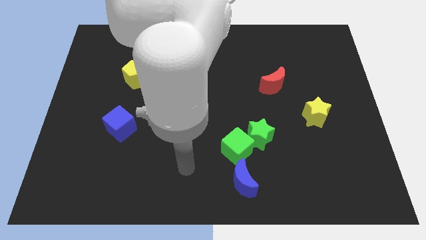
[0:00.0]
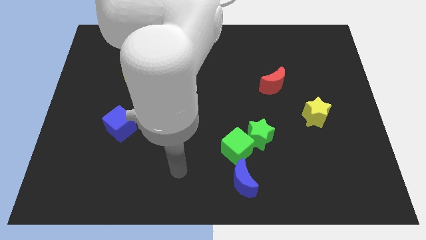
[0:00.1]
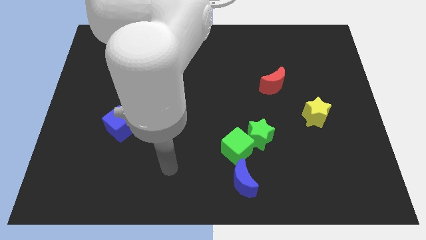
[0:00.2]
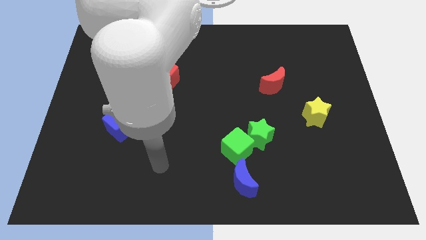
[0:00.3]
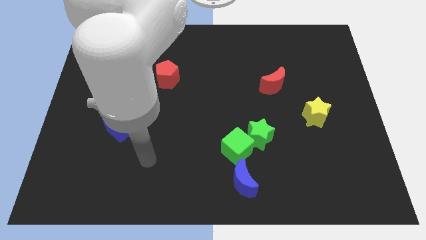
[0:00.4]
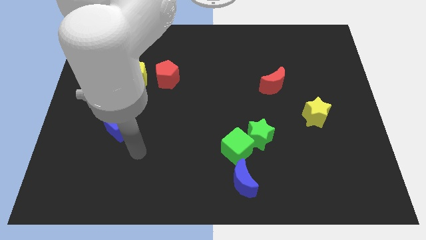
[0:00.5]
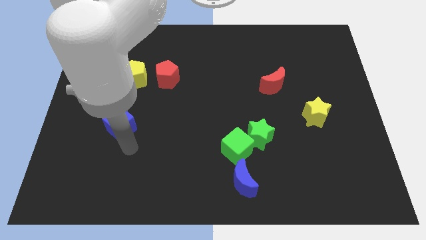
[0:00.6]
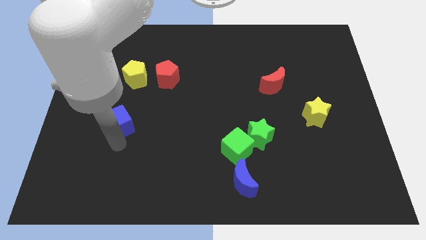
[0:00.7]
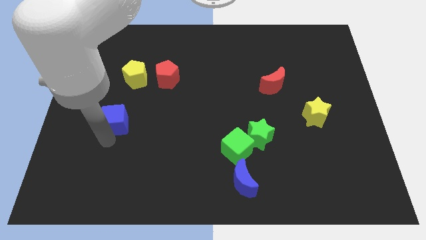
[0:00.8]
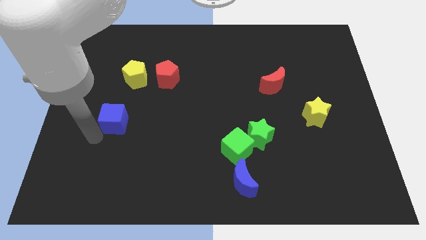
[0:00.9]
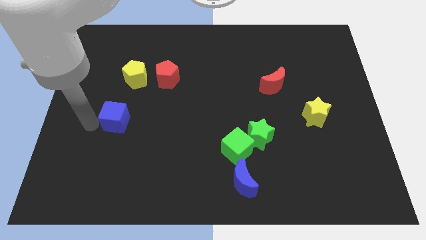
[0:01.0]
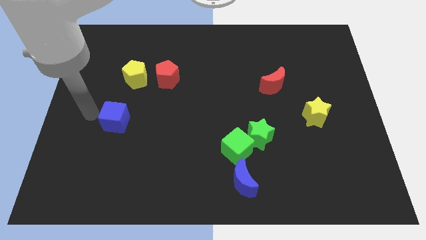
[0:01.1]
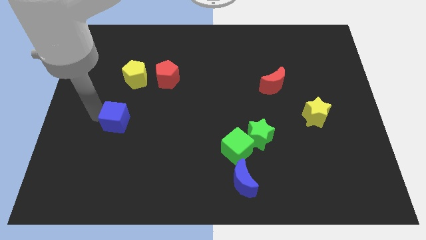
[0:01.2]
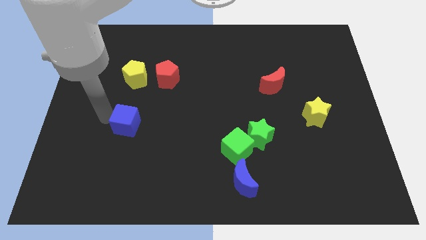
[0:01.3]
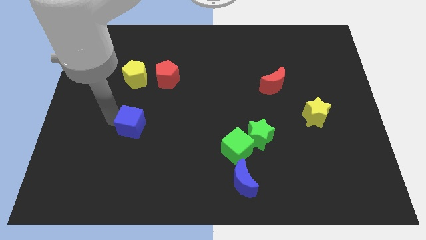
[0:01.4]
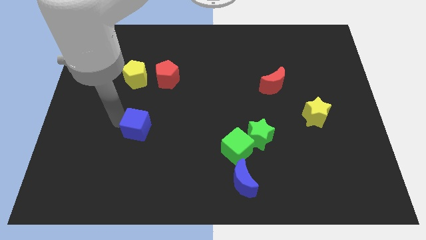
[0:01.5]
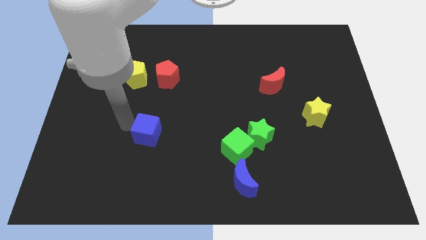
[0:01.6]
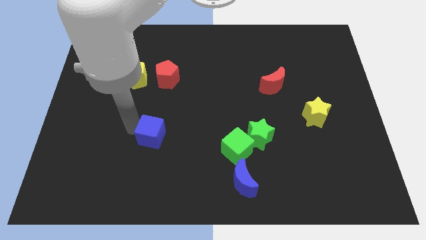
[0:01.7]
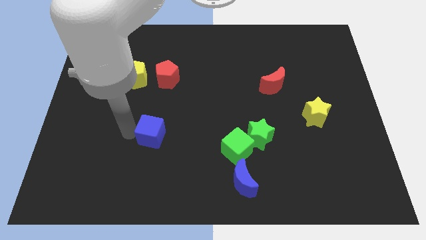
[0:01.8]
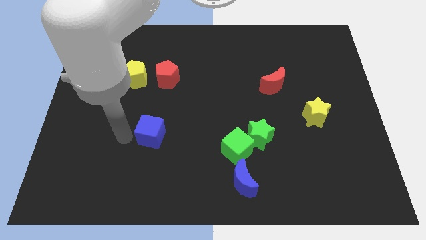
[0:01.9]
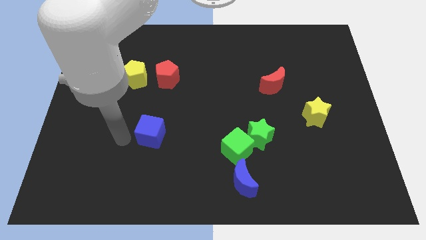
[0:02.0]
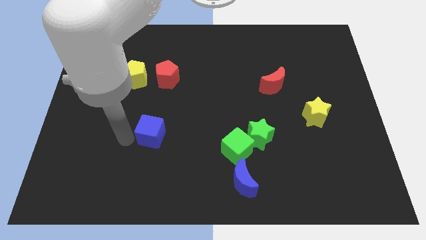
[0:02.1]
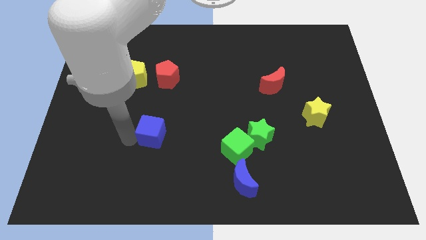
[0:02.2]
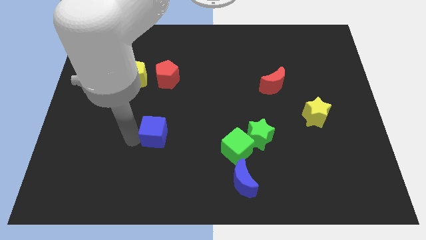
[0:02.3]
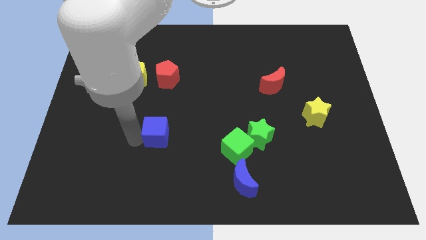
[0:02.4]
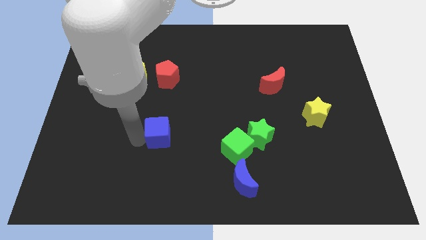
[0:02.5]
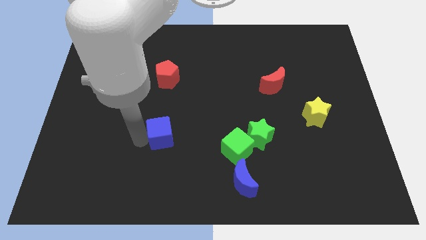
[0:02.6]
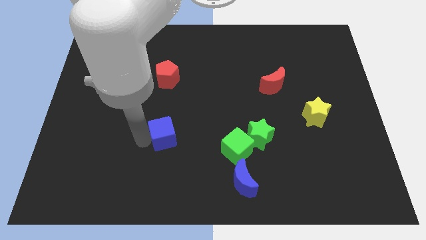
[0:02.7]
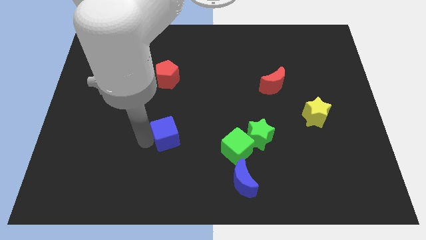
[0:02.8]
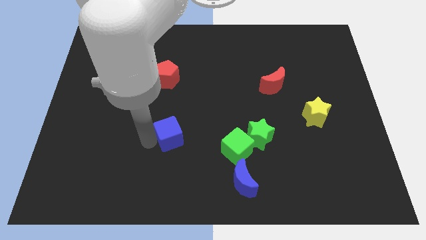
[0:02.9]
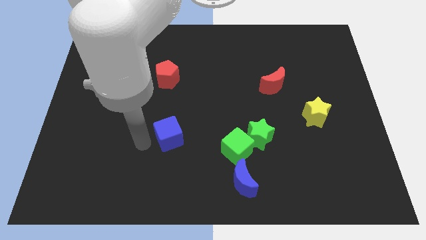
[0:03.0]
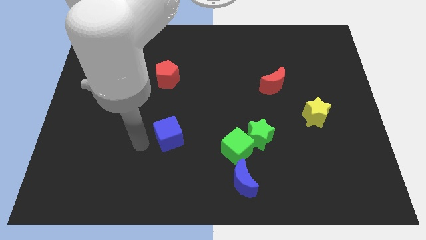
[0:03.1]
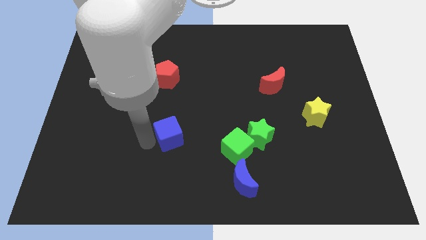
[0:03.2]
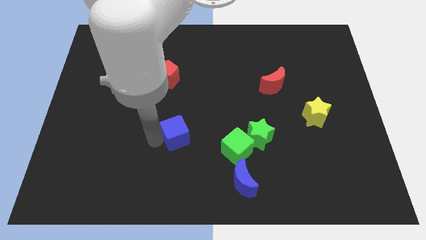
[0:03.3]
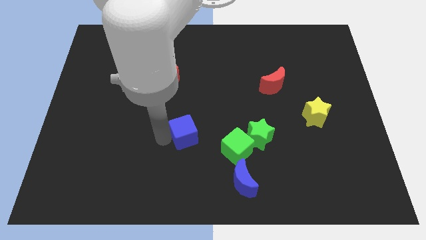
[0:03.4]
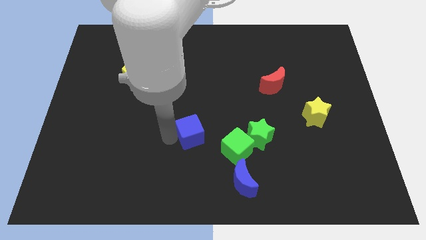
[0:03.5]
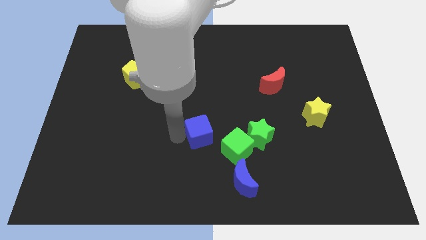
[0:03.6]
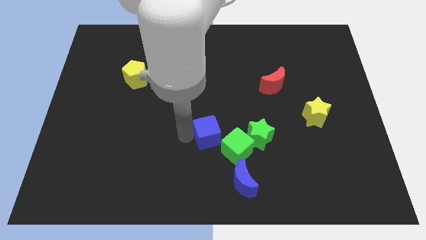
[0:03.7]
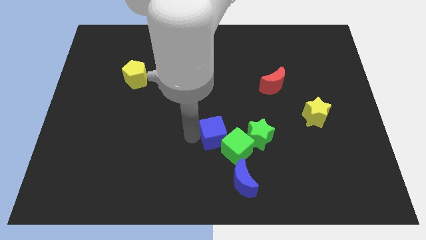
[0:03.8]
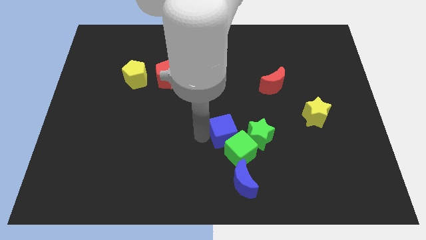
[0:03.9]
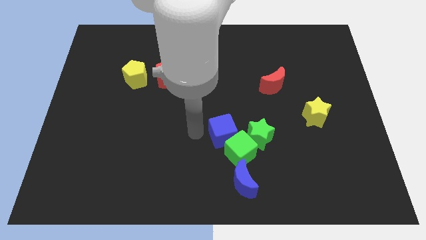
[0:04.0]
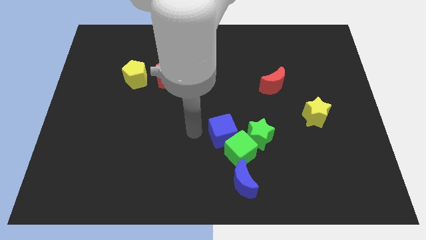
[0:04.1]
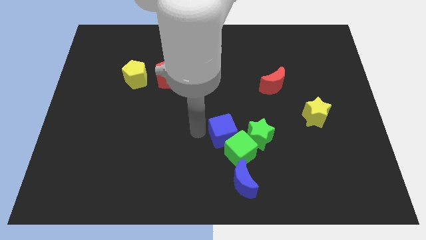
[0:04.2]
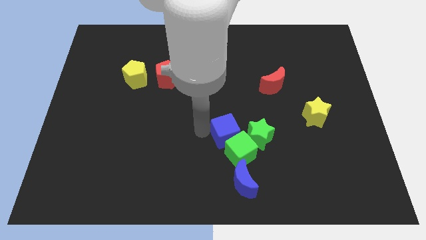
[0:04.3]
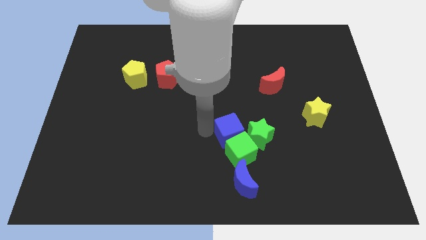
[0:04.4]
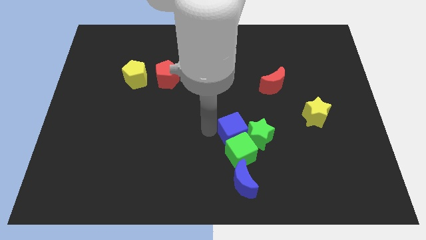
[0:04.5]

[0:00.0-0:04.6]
put the blue cube to the green star

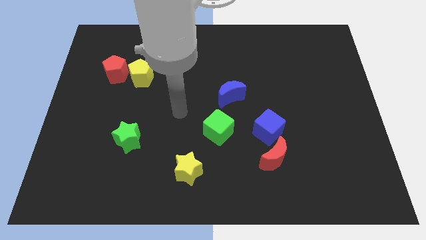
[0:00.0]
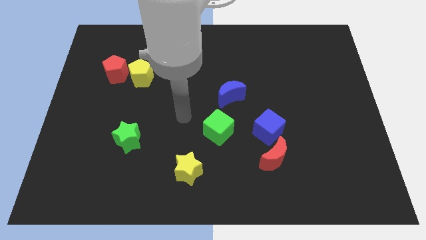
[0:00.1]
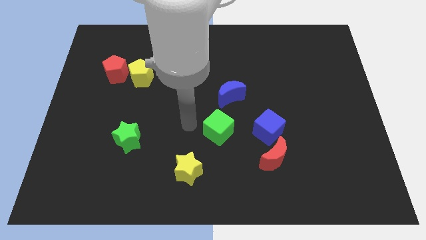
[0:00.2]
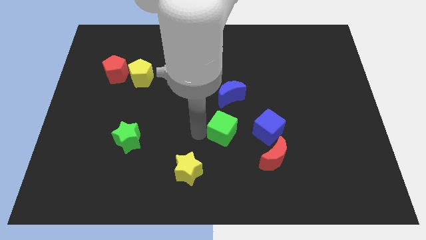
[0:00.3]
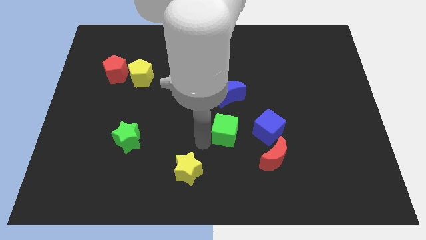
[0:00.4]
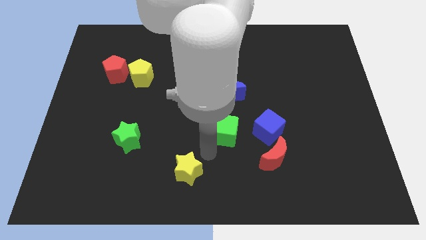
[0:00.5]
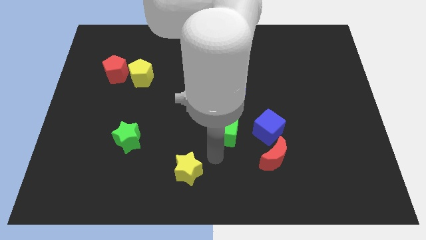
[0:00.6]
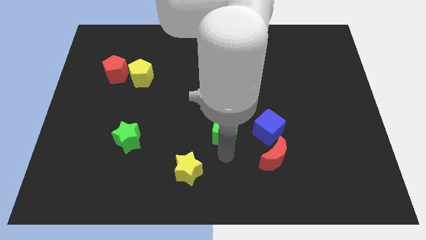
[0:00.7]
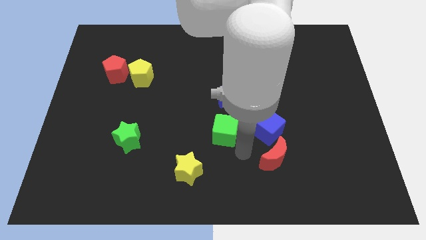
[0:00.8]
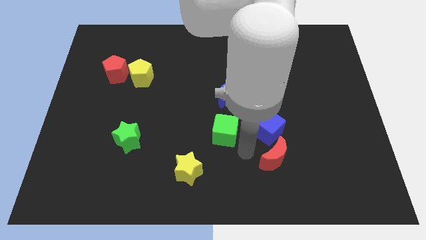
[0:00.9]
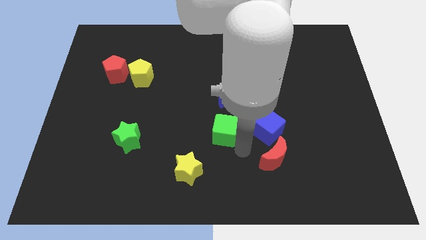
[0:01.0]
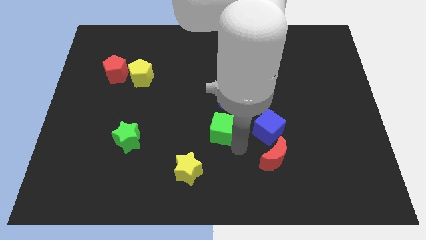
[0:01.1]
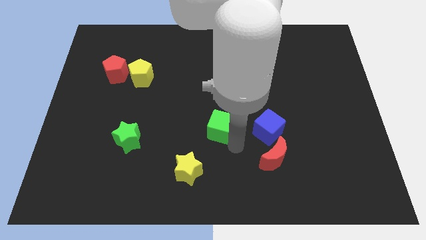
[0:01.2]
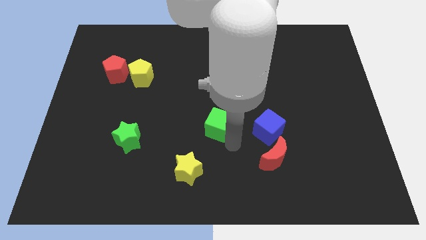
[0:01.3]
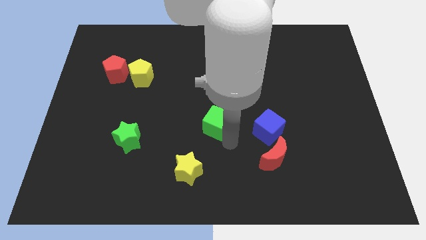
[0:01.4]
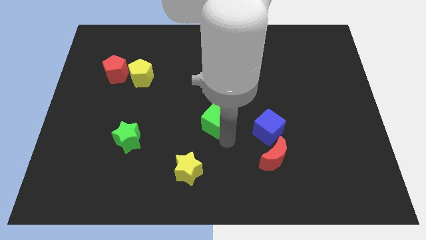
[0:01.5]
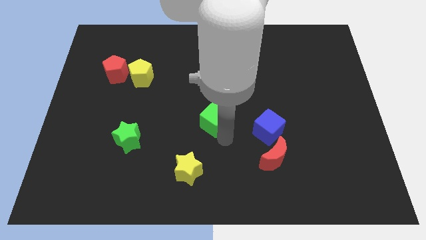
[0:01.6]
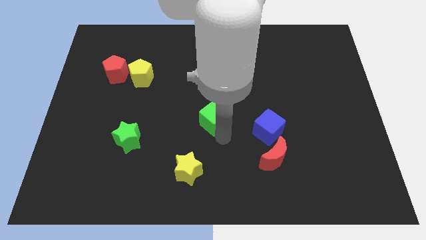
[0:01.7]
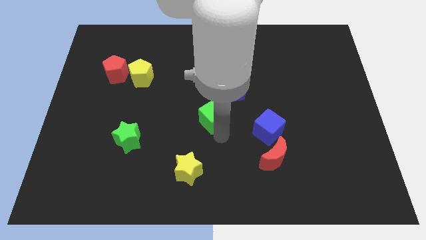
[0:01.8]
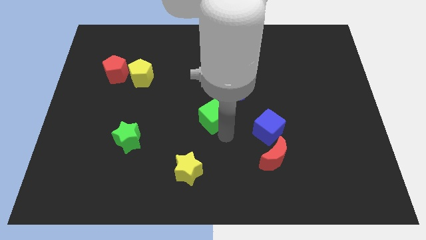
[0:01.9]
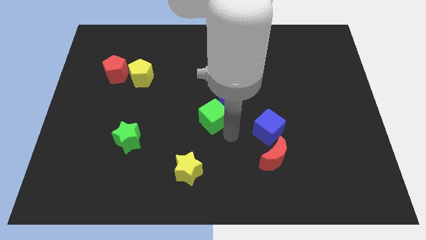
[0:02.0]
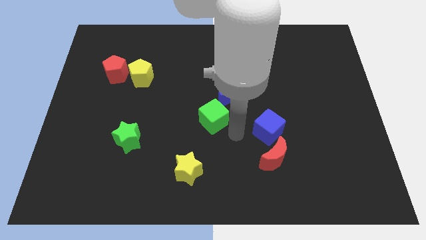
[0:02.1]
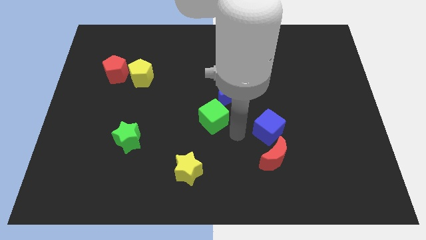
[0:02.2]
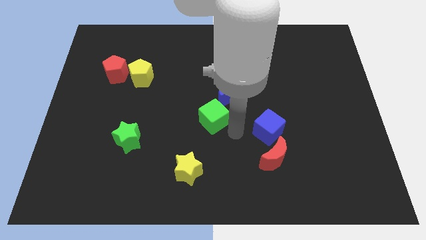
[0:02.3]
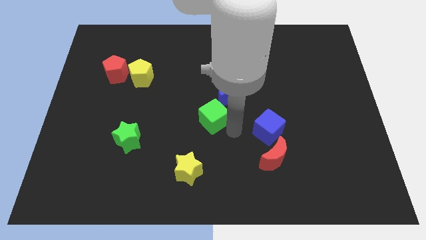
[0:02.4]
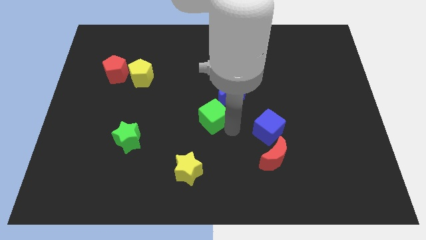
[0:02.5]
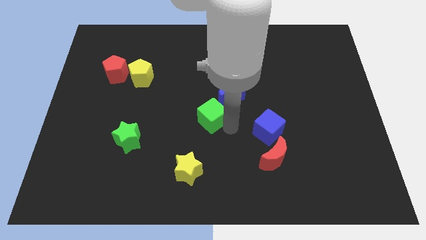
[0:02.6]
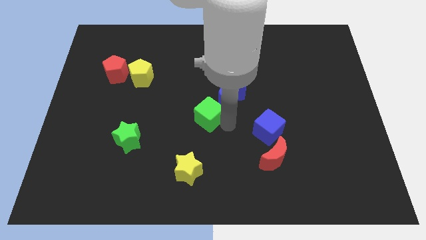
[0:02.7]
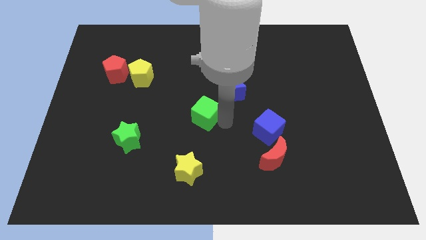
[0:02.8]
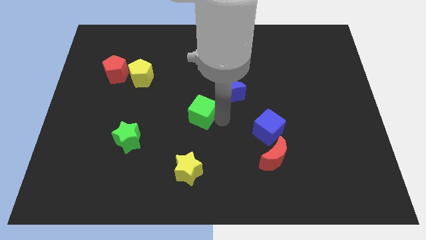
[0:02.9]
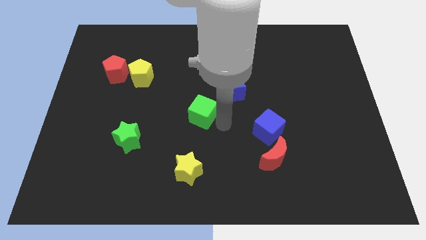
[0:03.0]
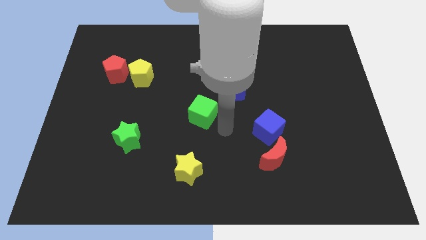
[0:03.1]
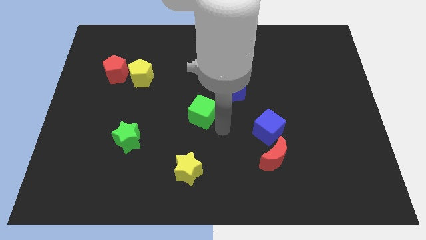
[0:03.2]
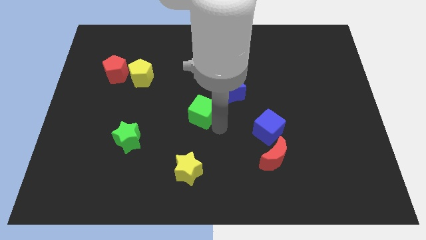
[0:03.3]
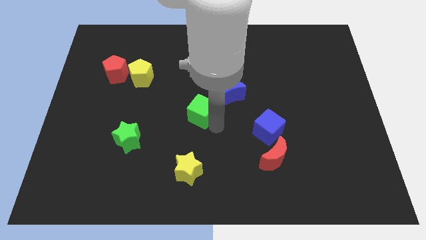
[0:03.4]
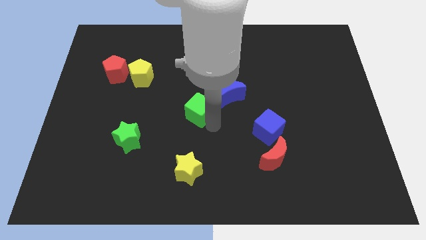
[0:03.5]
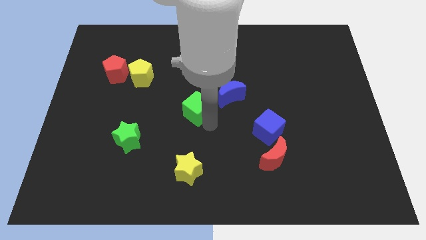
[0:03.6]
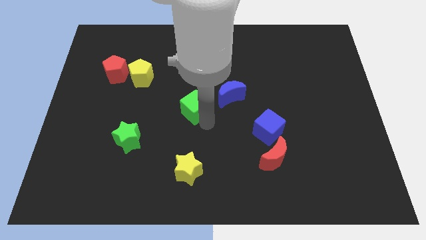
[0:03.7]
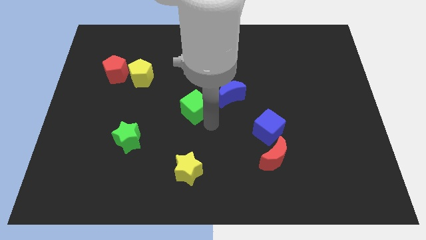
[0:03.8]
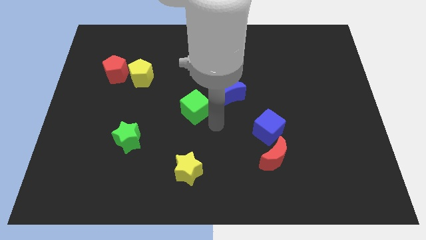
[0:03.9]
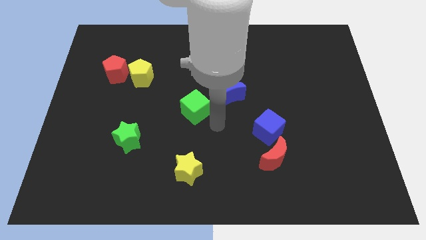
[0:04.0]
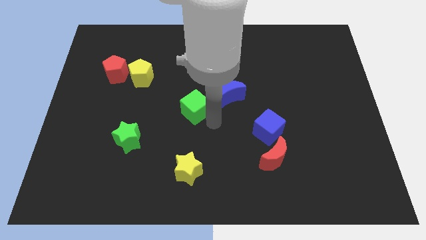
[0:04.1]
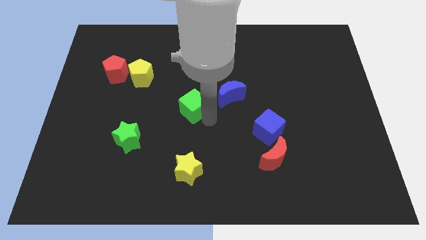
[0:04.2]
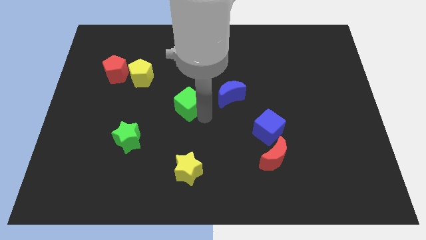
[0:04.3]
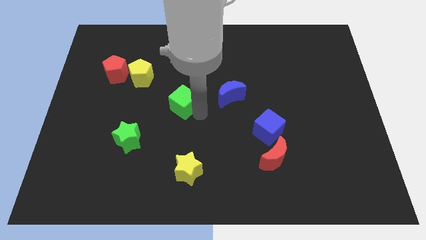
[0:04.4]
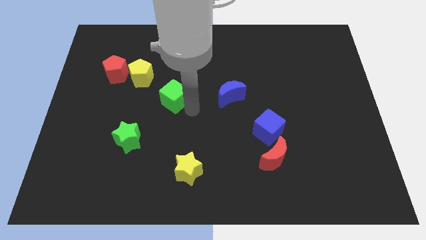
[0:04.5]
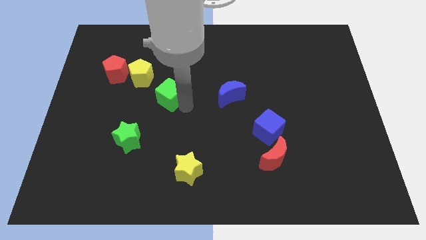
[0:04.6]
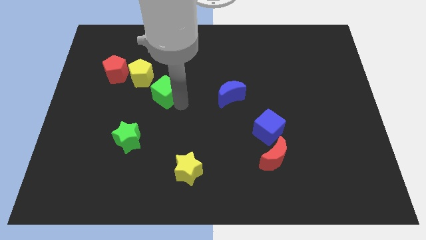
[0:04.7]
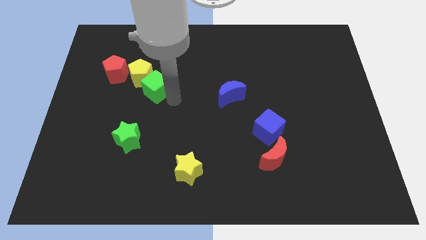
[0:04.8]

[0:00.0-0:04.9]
put the green cube towards the yellow pentagon
